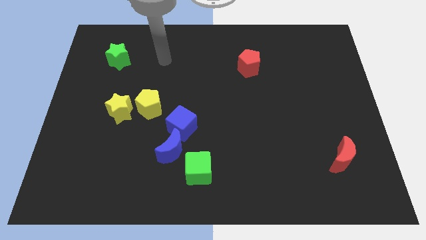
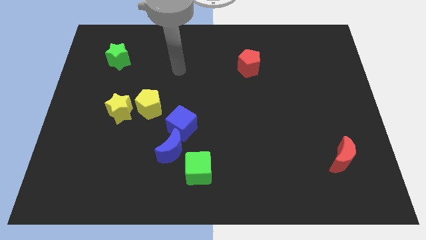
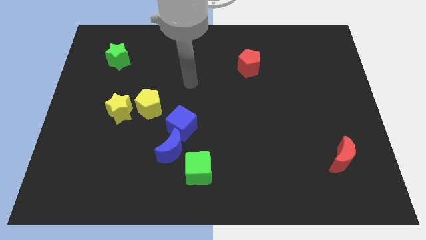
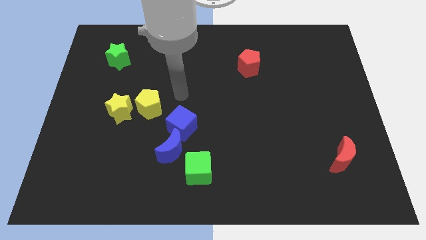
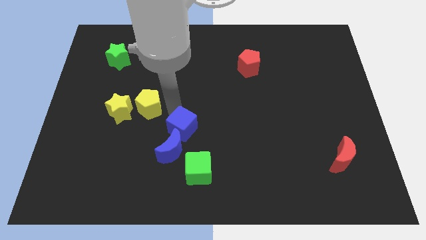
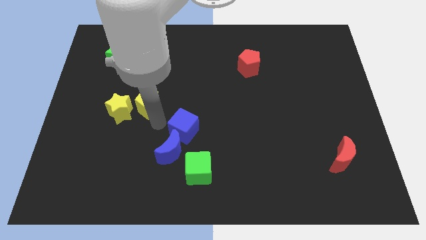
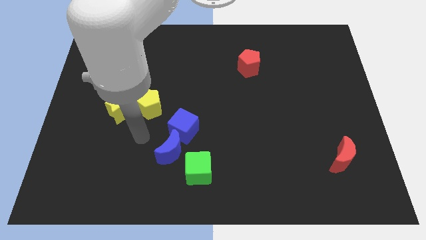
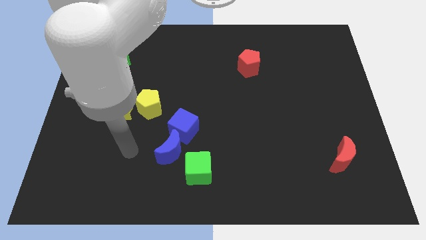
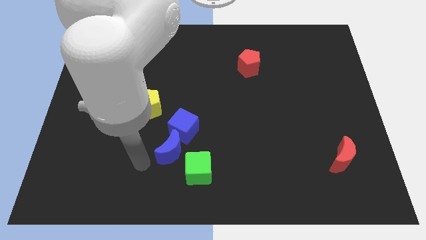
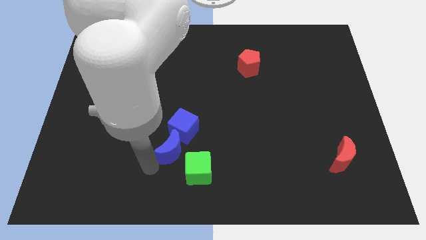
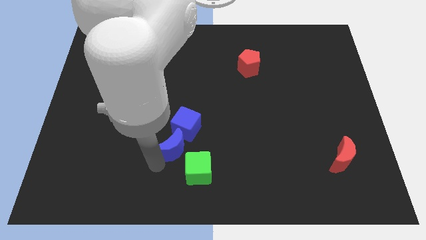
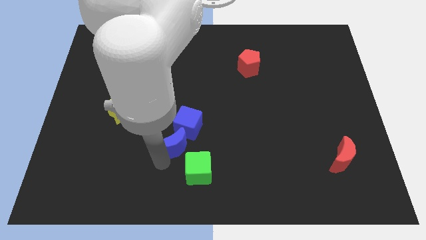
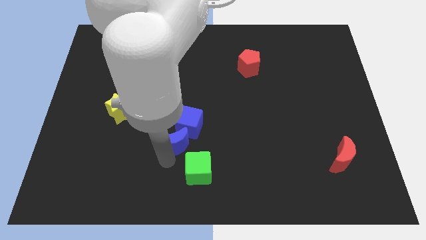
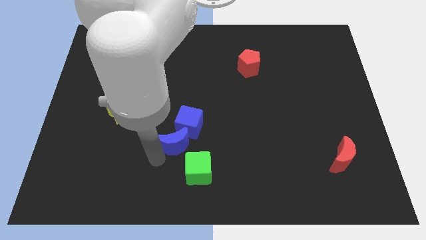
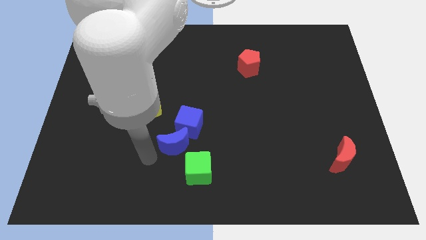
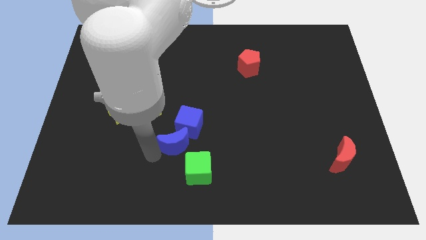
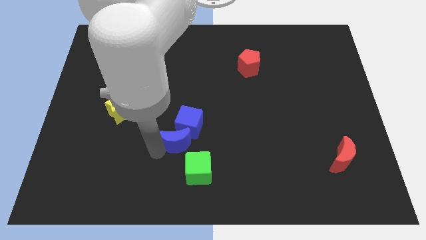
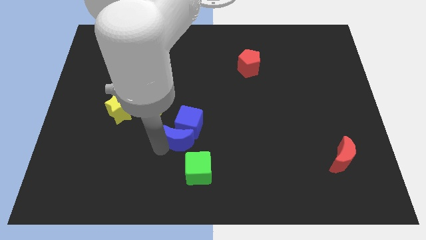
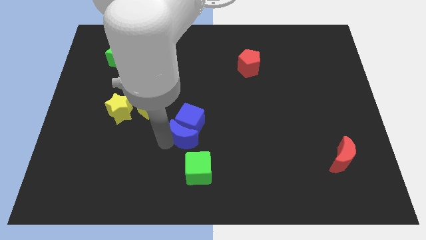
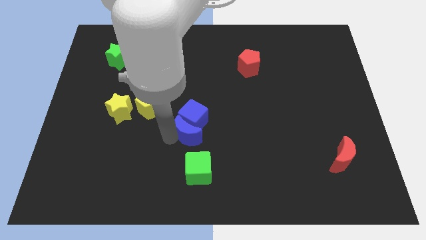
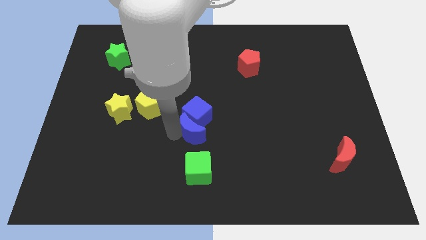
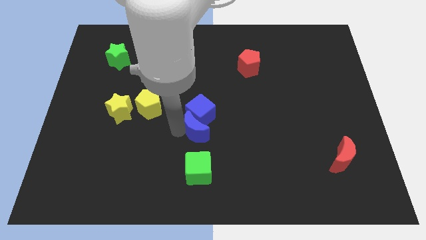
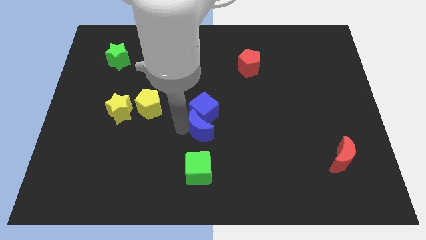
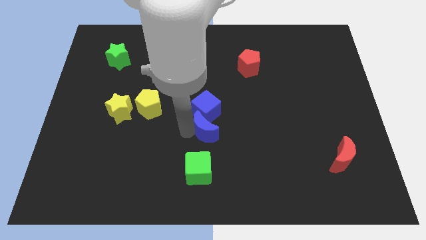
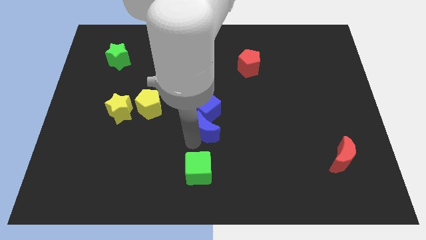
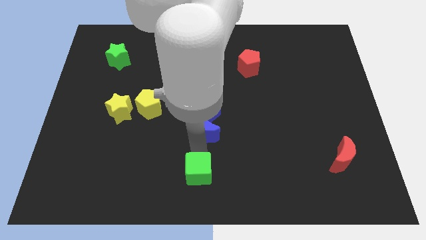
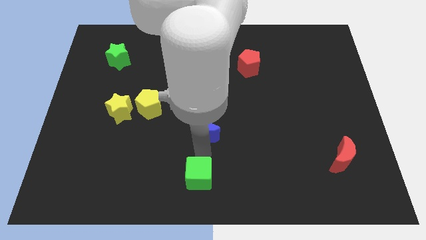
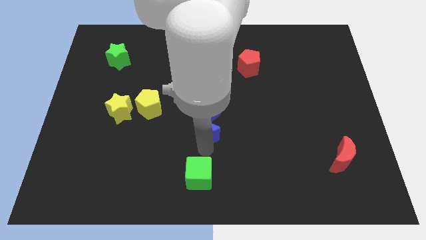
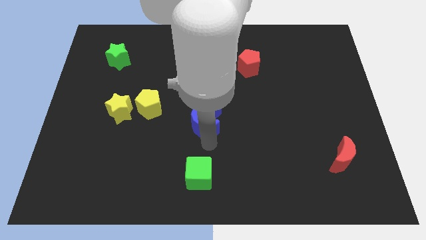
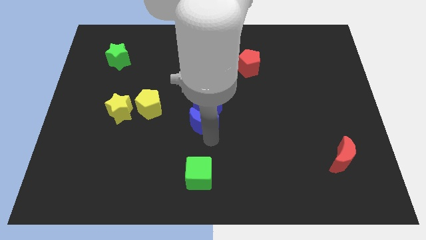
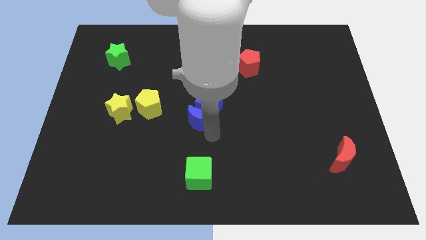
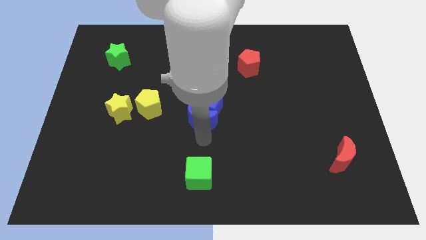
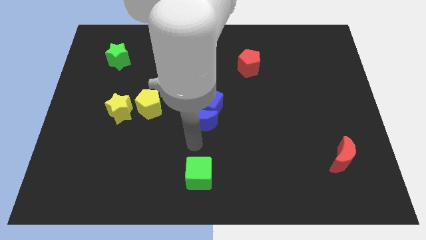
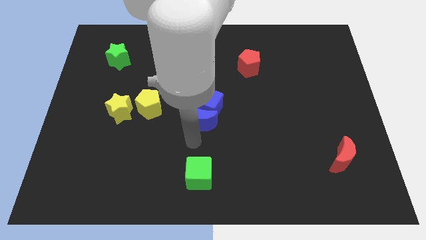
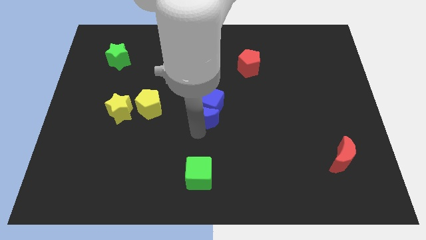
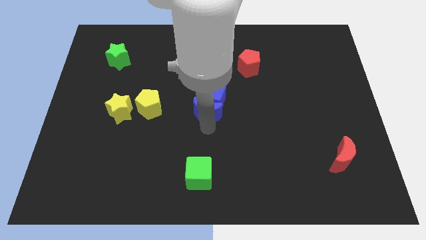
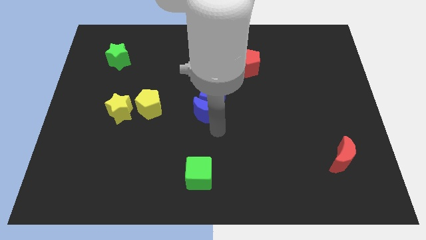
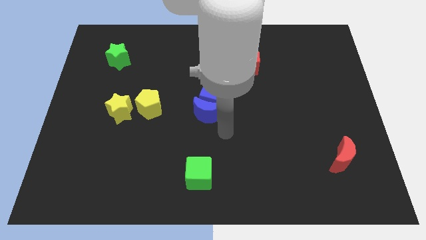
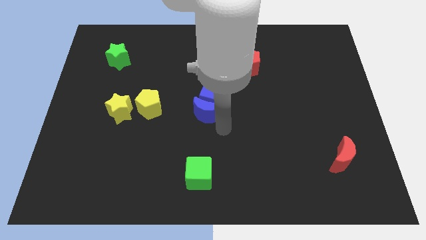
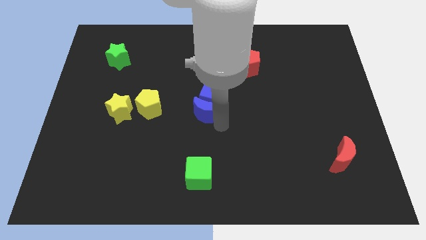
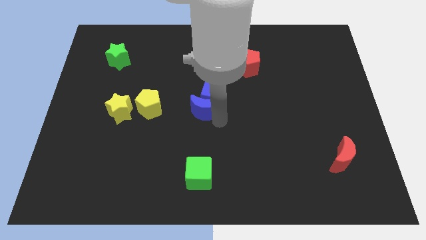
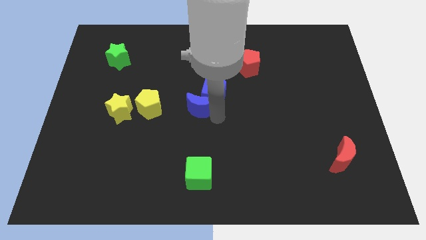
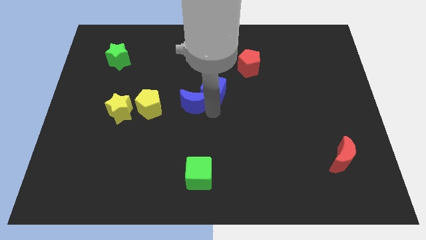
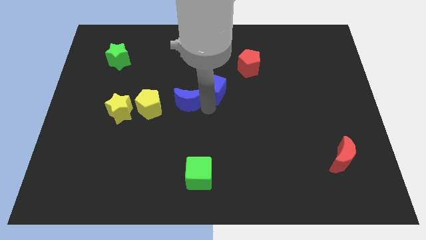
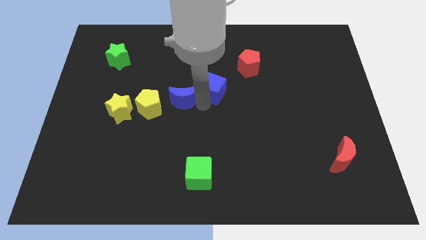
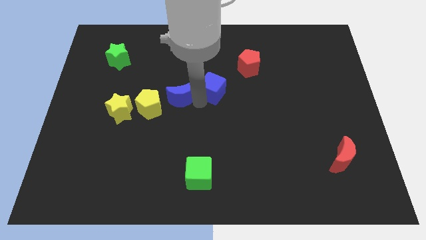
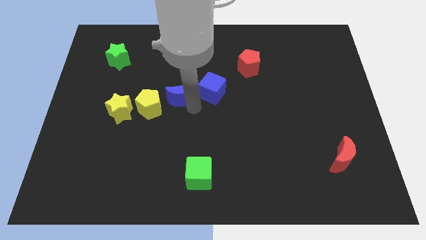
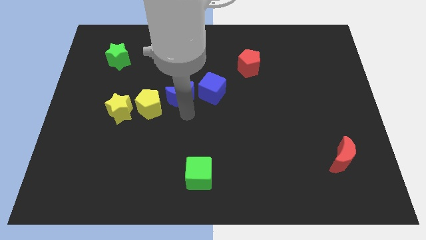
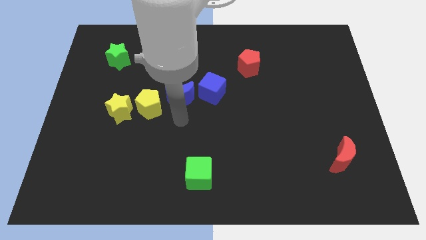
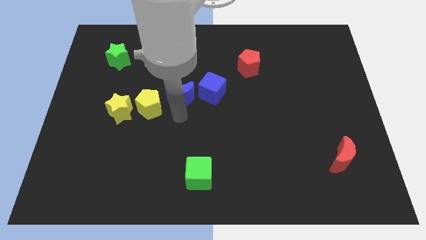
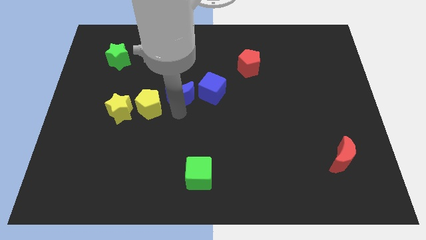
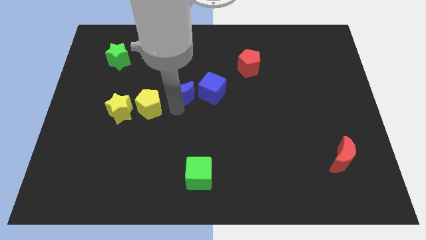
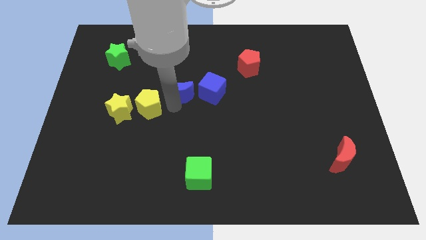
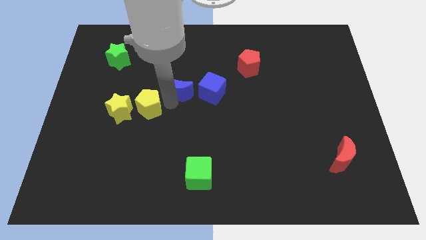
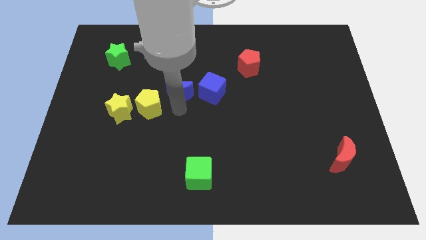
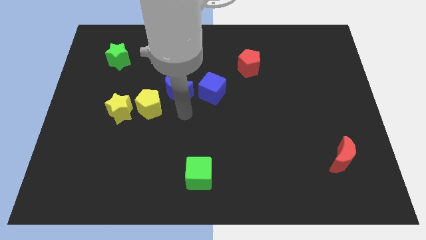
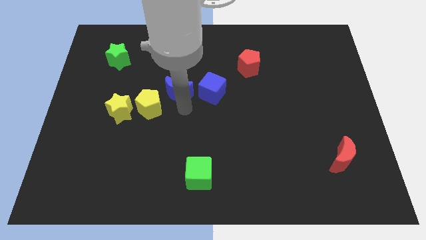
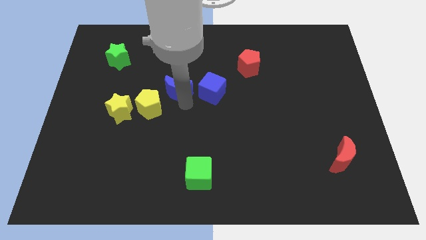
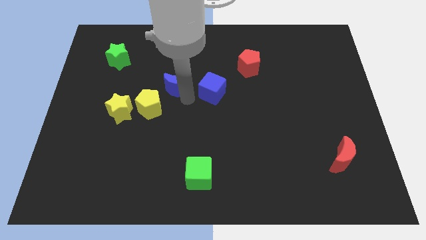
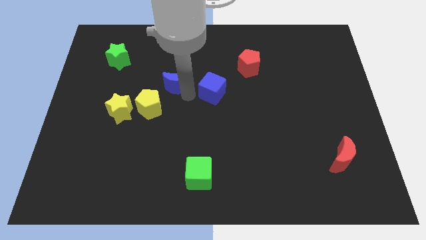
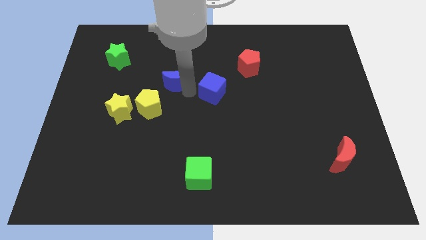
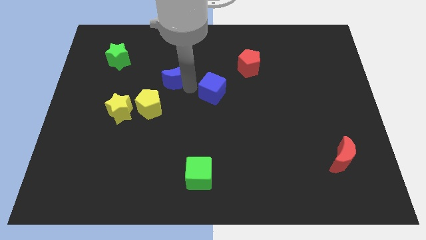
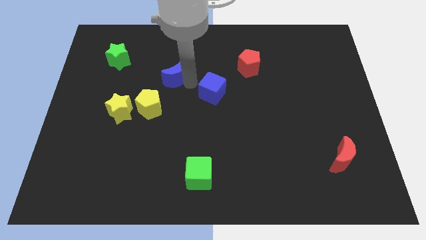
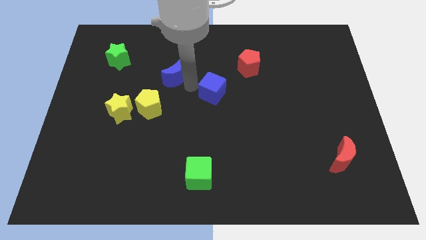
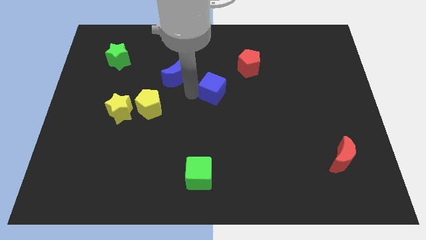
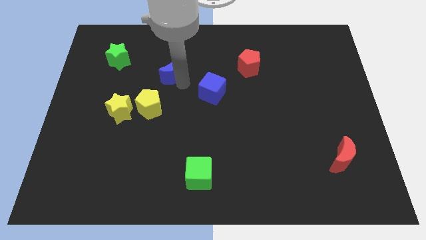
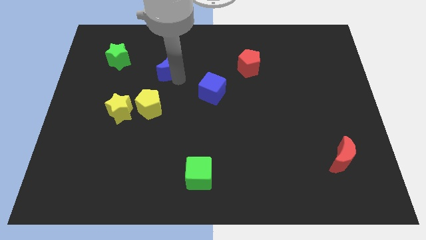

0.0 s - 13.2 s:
put the blue moon to the right side of the green star
